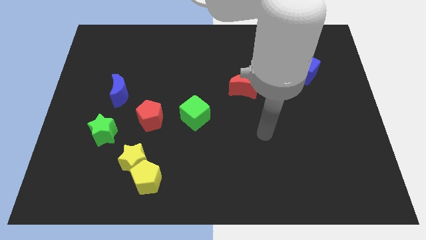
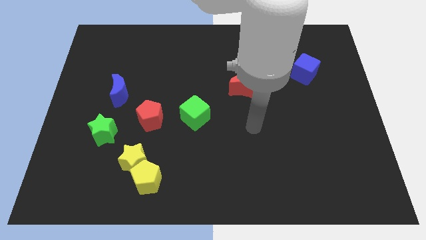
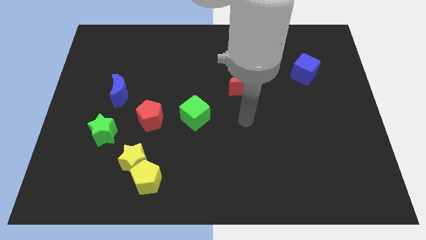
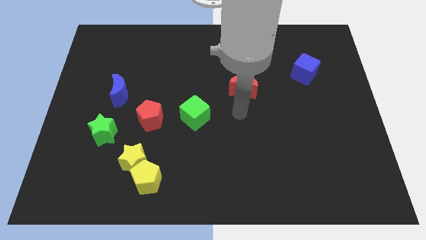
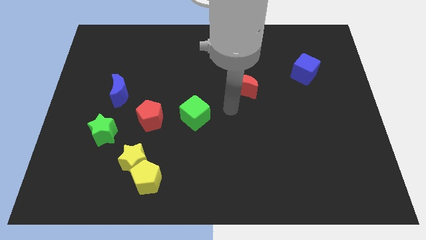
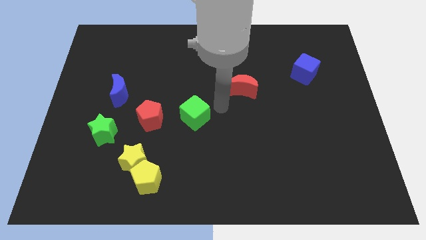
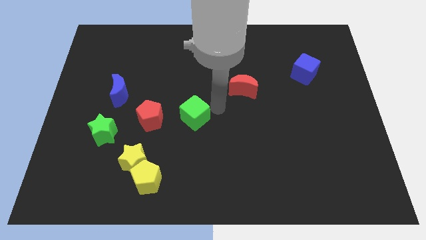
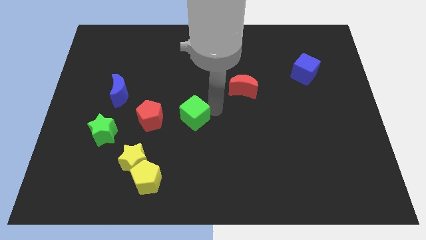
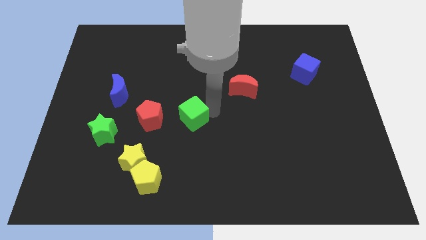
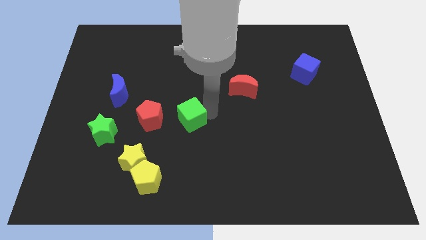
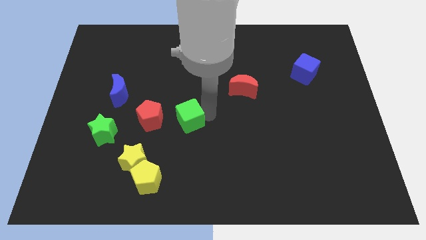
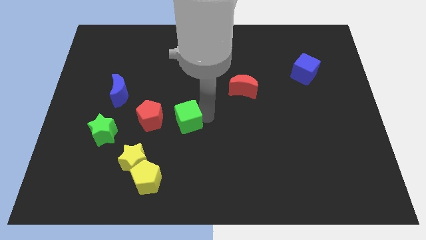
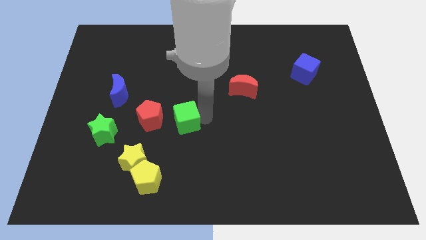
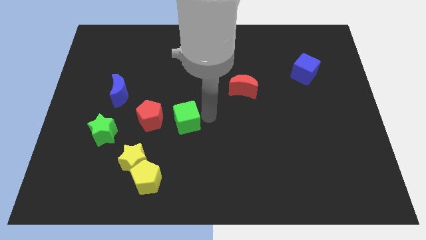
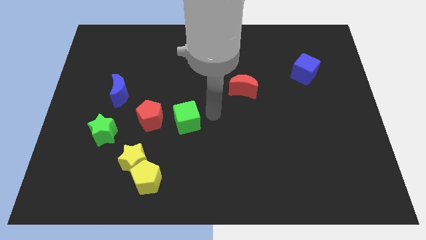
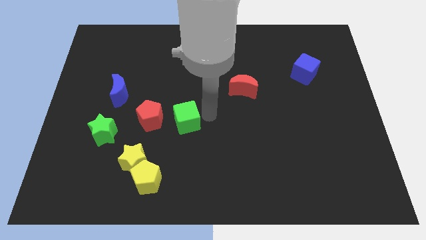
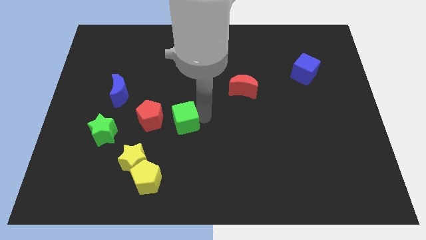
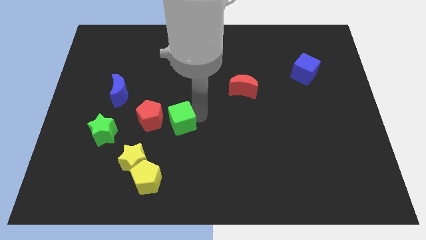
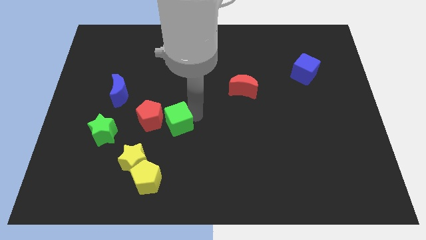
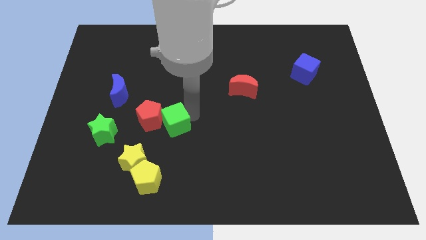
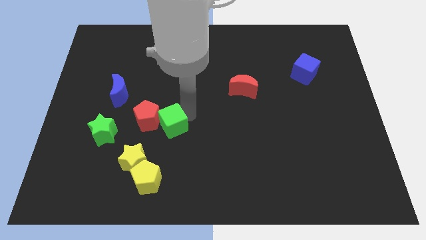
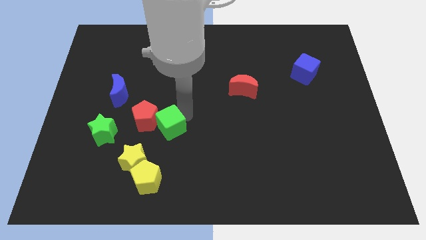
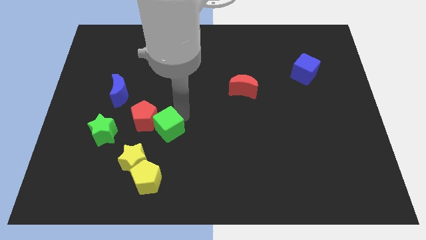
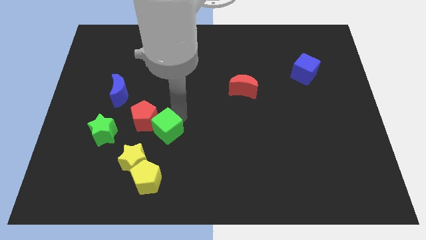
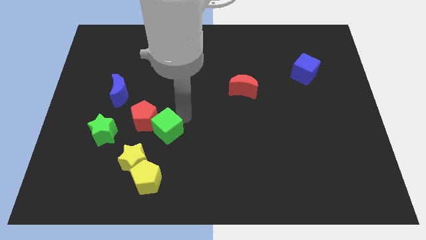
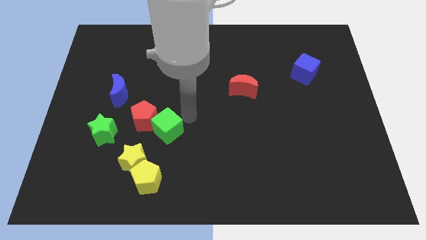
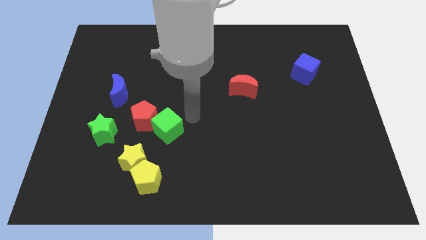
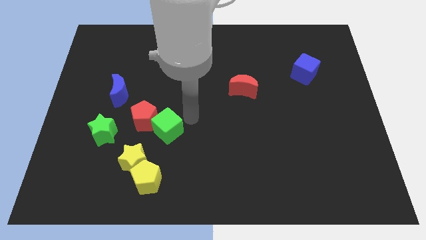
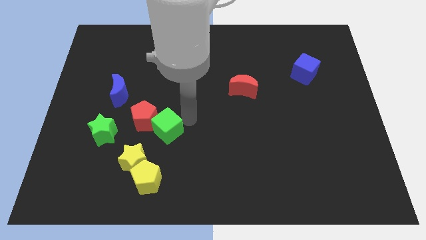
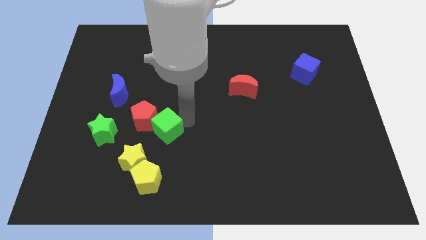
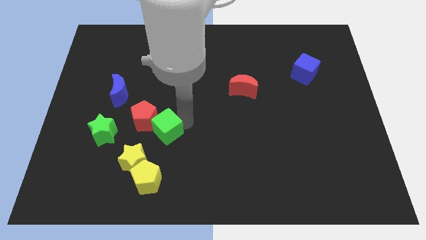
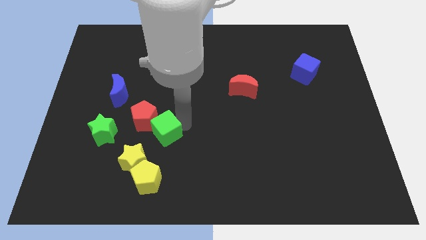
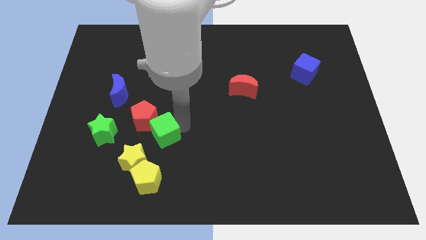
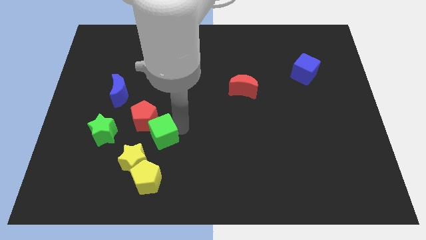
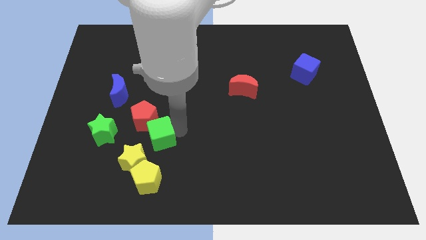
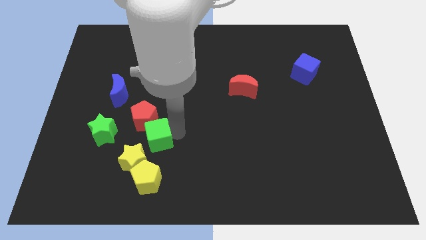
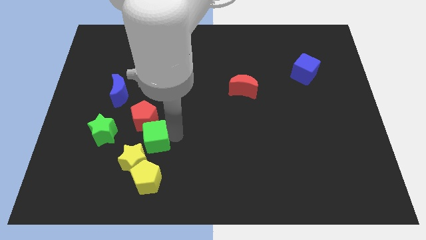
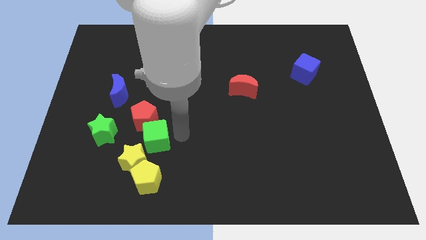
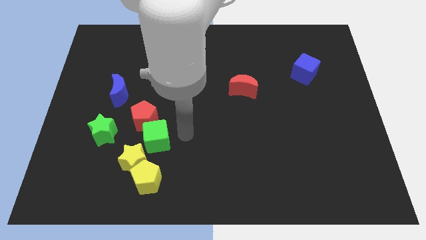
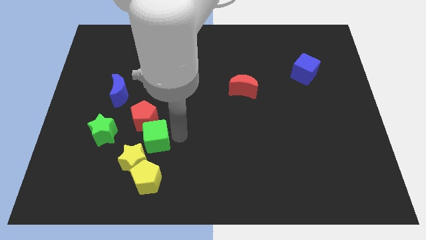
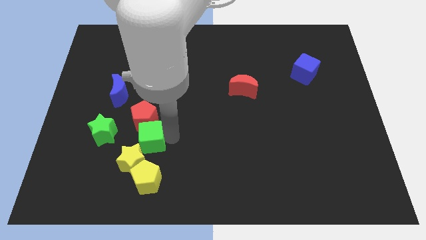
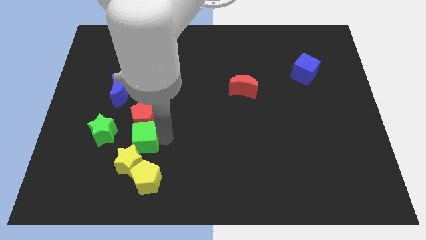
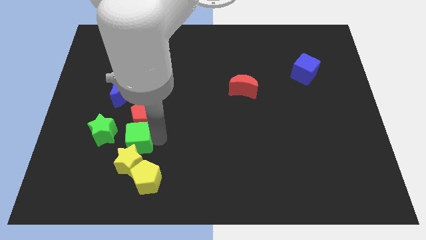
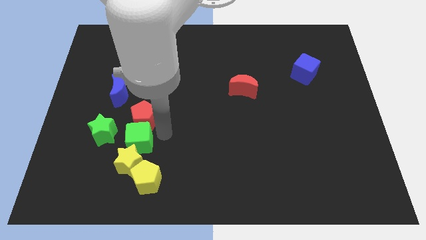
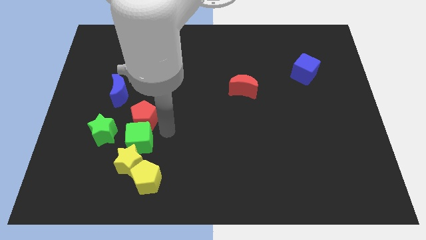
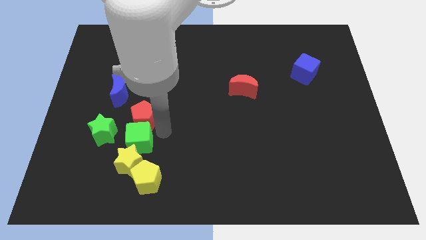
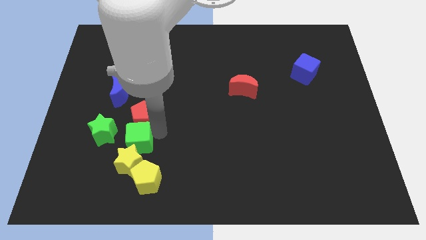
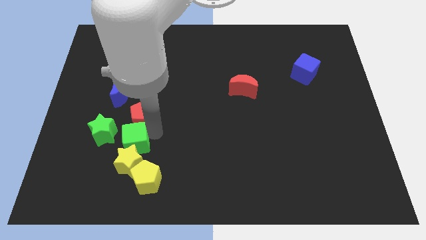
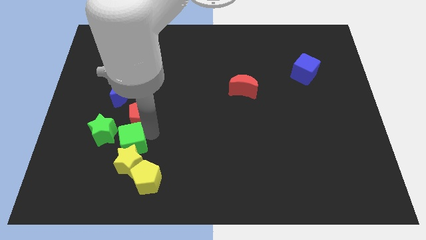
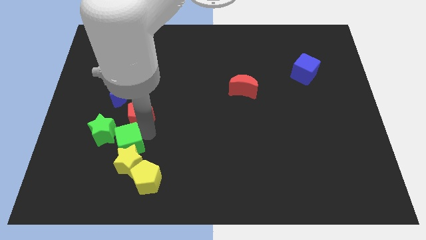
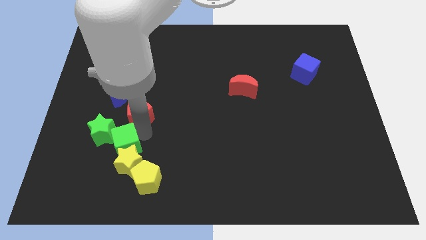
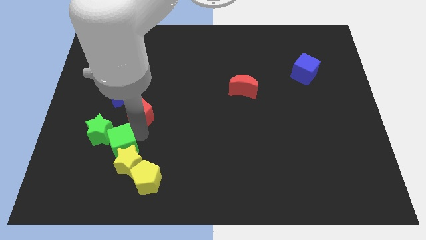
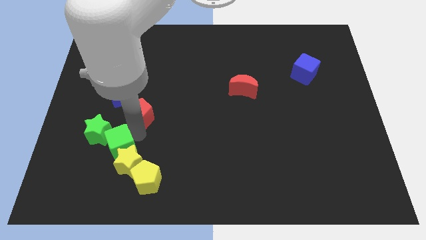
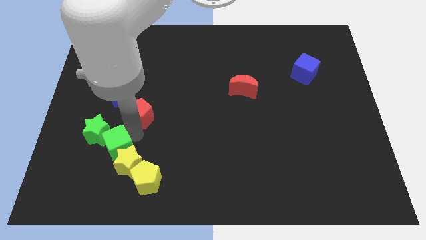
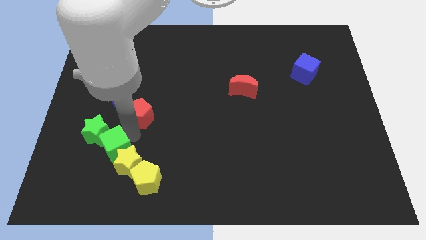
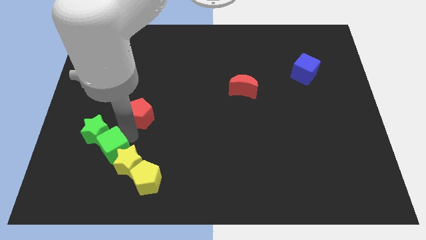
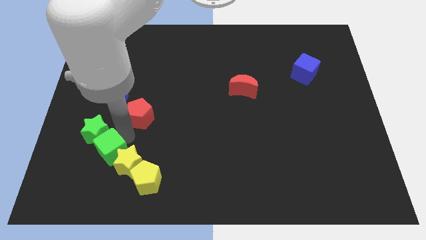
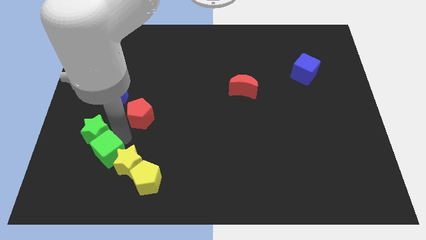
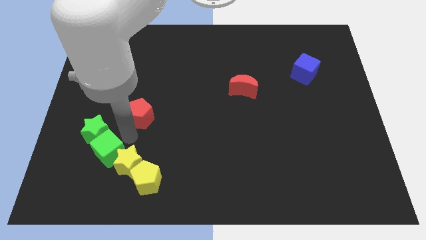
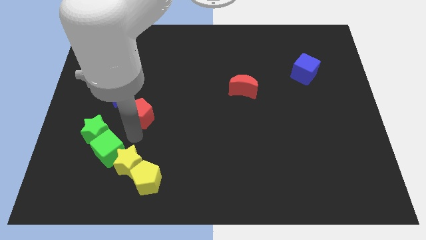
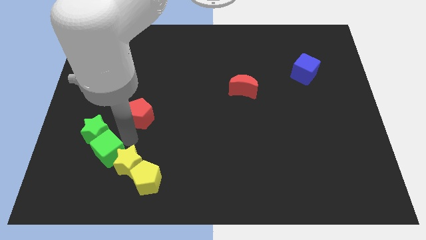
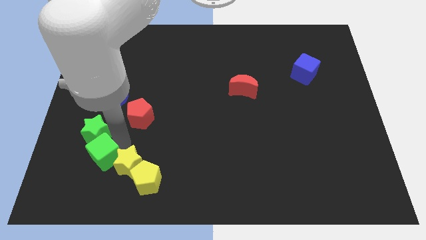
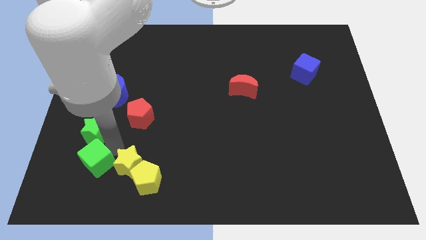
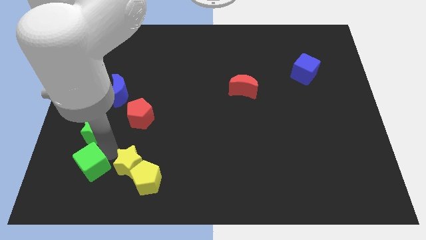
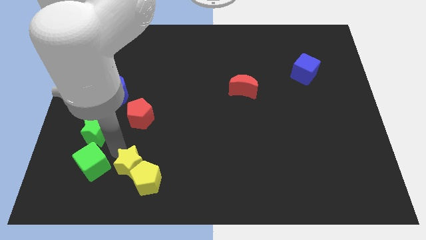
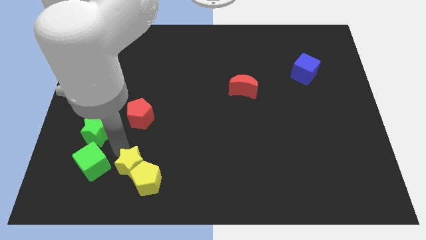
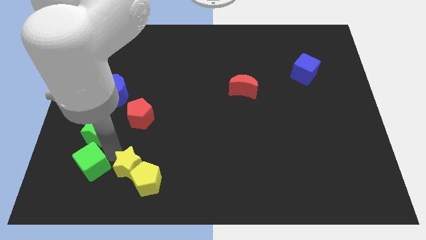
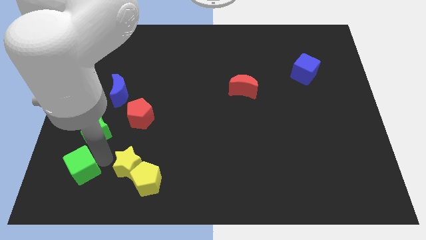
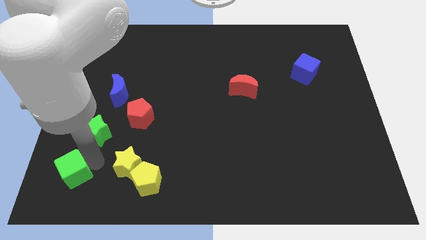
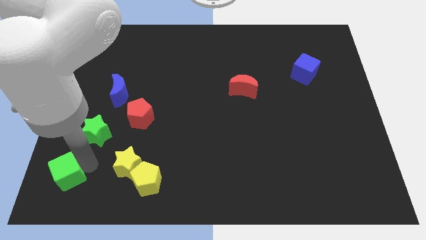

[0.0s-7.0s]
slide the green cube to the bottom left corner
